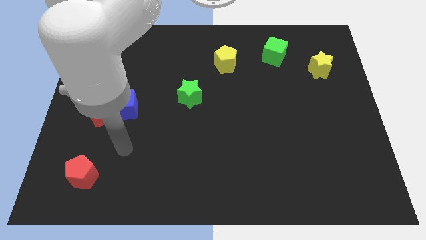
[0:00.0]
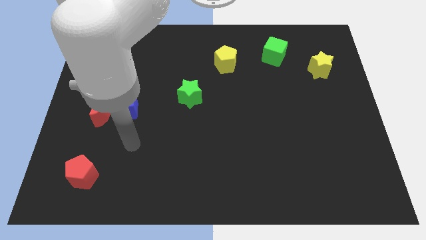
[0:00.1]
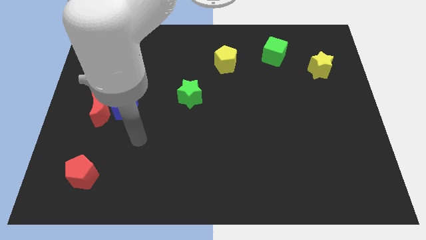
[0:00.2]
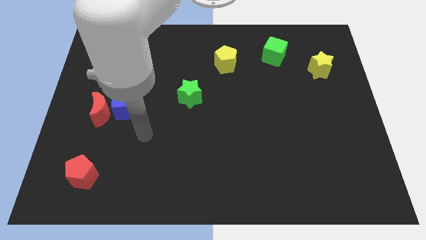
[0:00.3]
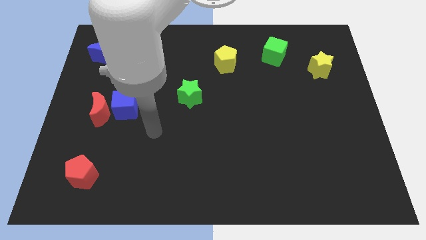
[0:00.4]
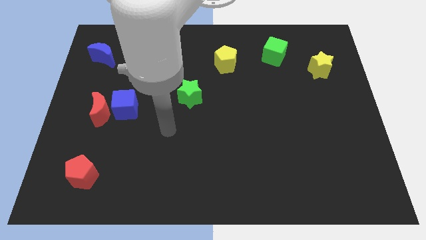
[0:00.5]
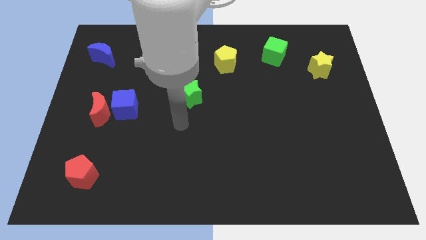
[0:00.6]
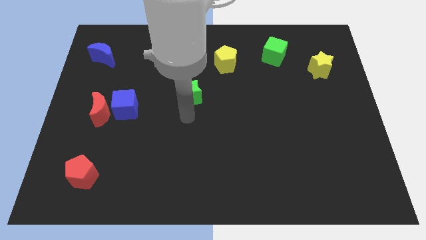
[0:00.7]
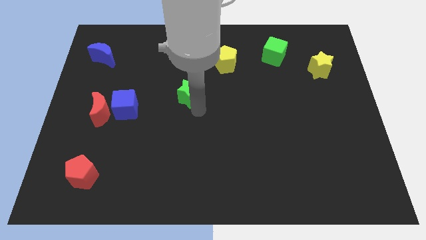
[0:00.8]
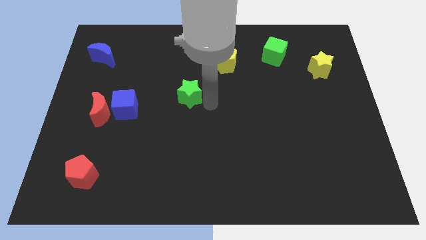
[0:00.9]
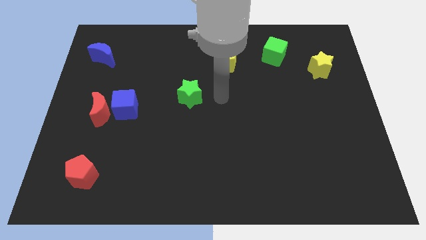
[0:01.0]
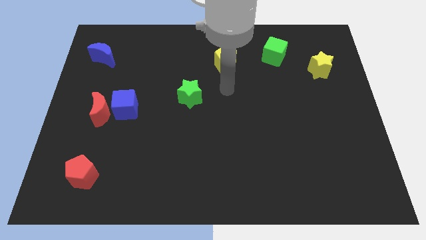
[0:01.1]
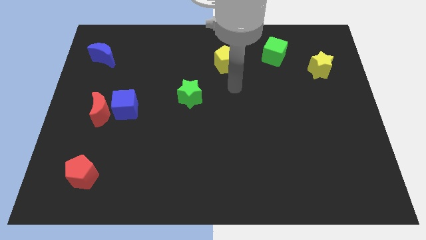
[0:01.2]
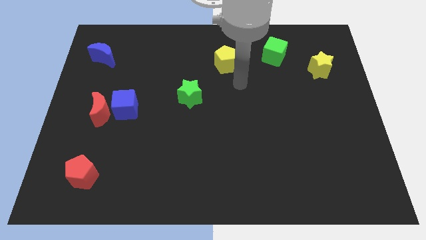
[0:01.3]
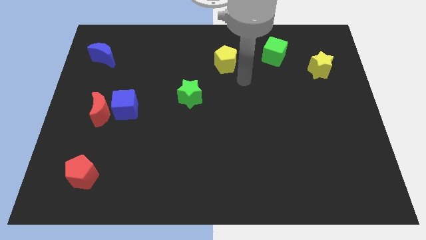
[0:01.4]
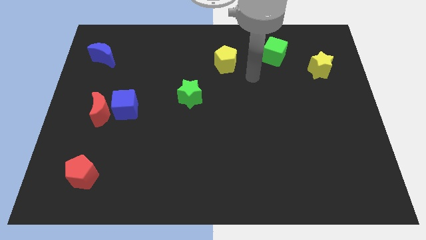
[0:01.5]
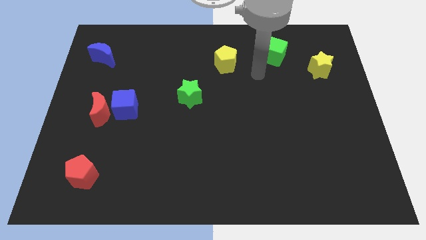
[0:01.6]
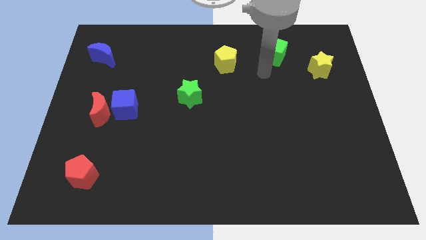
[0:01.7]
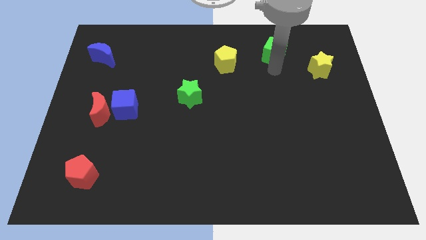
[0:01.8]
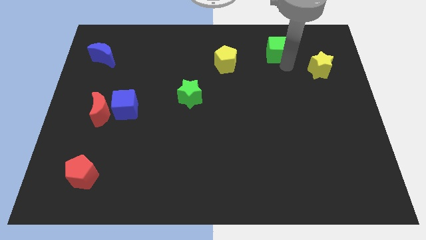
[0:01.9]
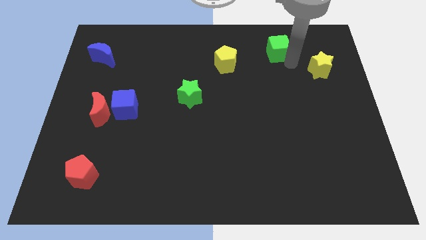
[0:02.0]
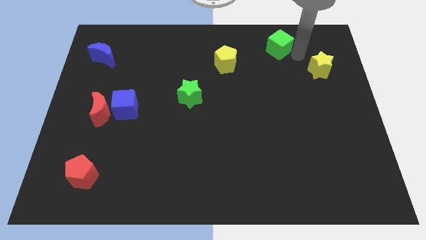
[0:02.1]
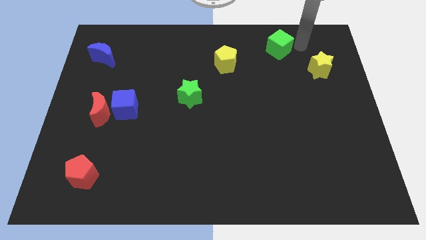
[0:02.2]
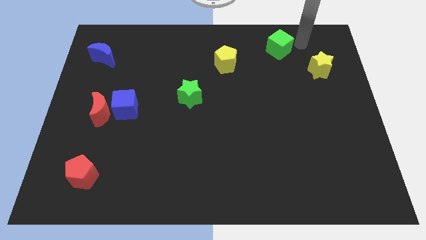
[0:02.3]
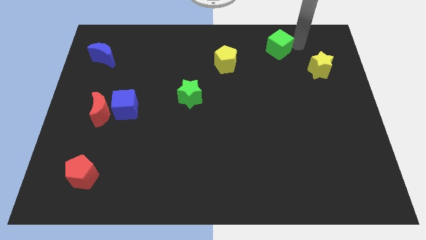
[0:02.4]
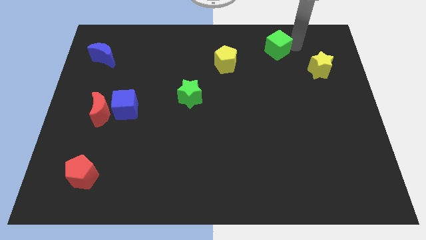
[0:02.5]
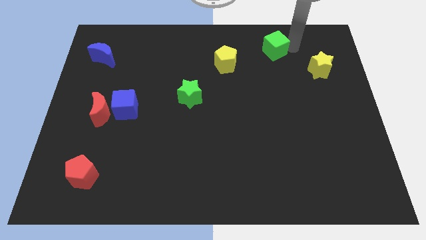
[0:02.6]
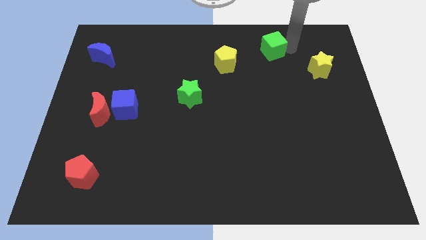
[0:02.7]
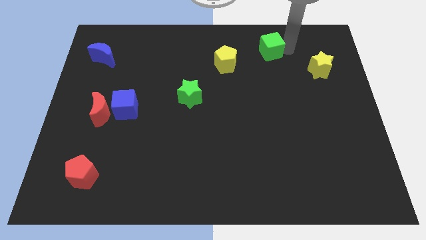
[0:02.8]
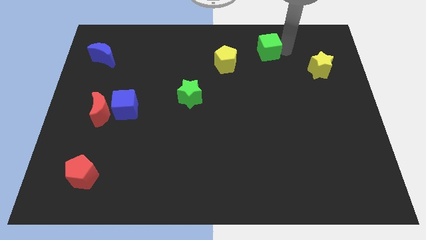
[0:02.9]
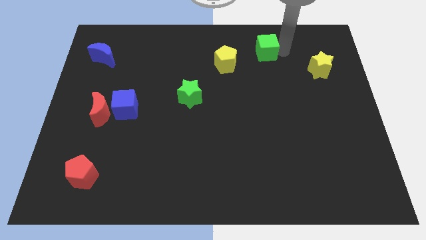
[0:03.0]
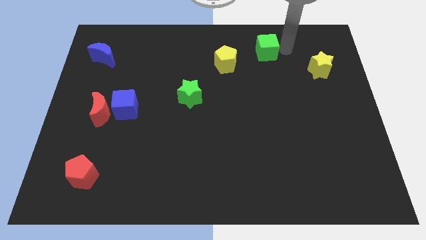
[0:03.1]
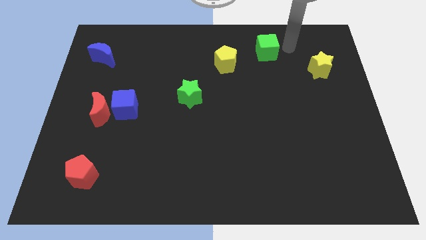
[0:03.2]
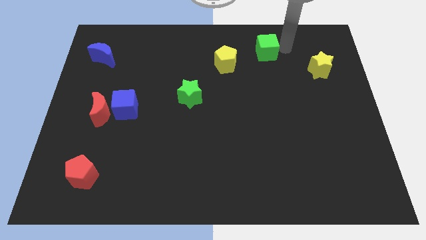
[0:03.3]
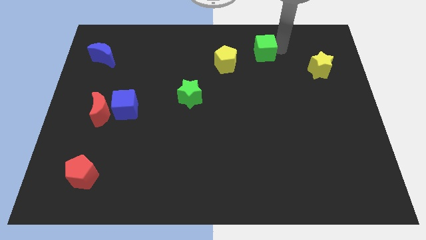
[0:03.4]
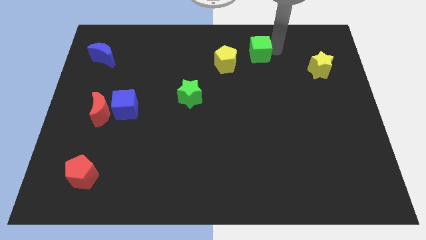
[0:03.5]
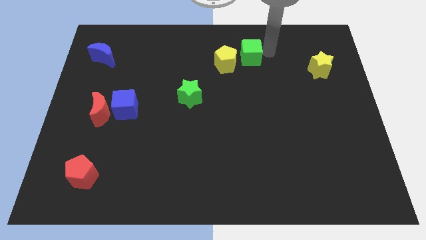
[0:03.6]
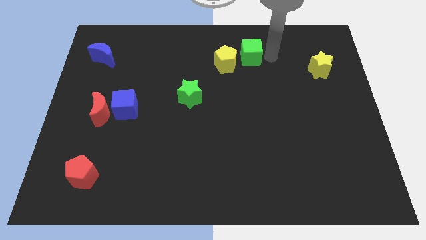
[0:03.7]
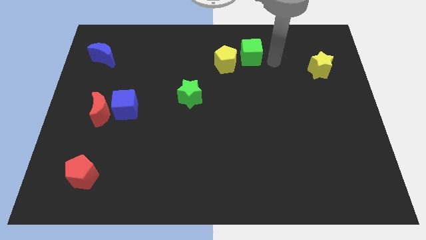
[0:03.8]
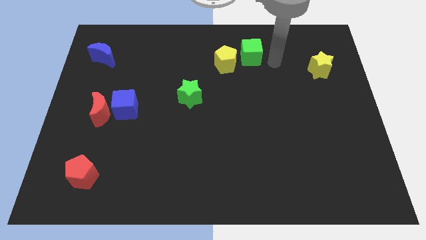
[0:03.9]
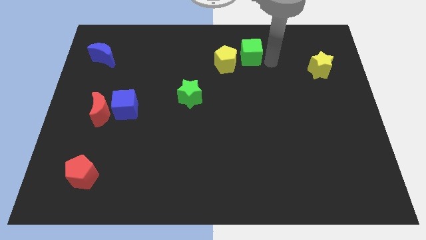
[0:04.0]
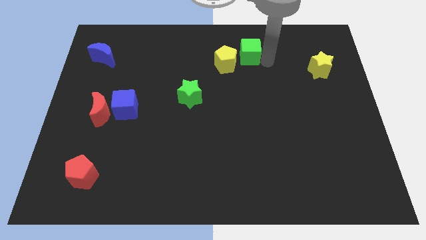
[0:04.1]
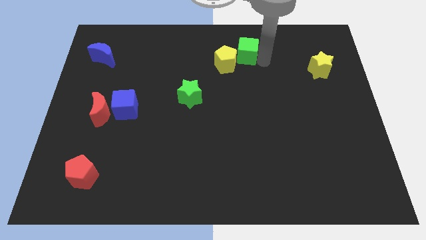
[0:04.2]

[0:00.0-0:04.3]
move the green cube to the left somewhat

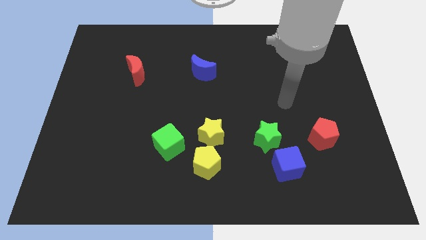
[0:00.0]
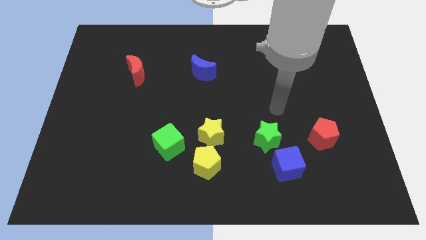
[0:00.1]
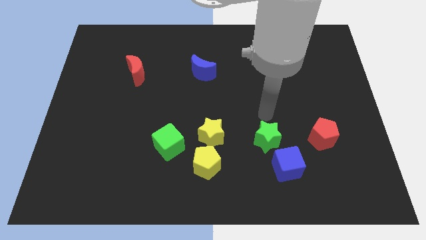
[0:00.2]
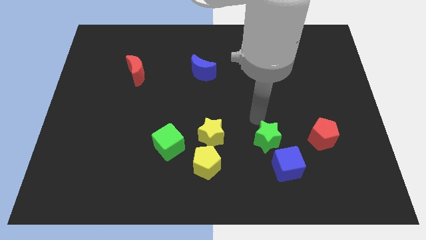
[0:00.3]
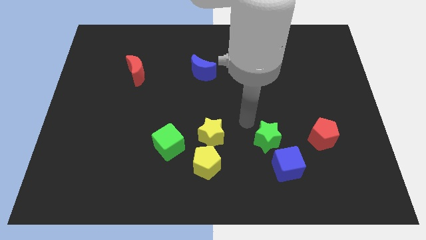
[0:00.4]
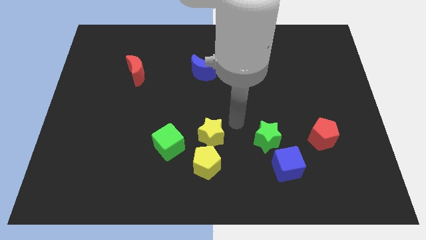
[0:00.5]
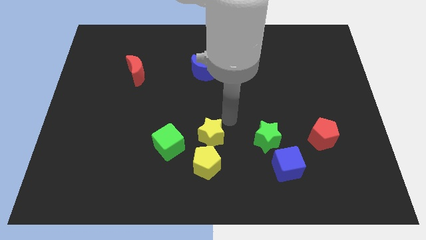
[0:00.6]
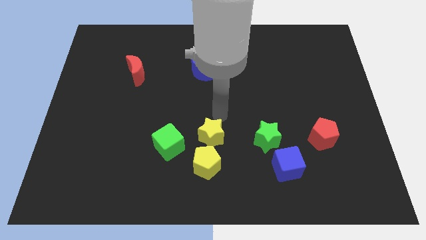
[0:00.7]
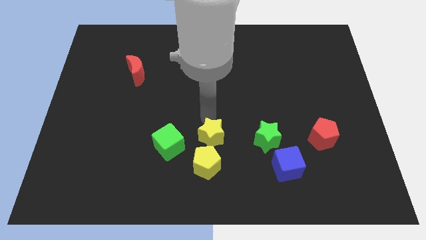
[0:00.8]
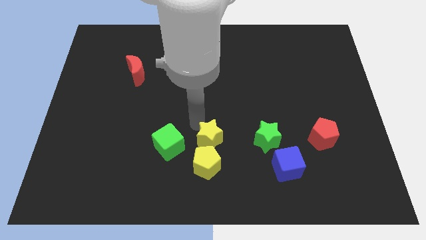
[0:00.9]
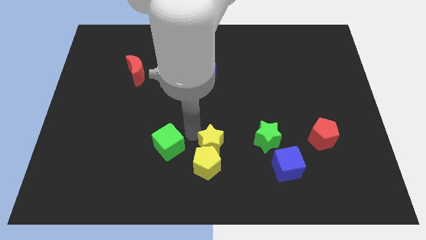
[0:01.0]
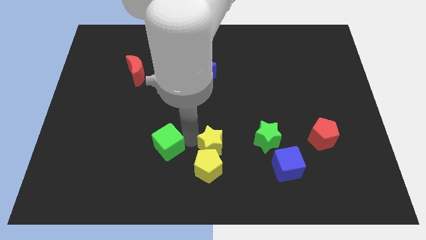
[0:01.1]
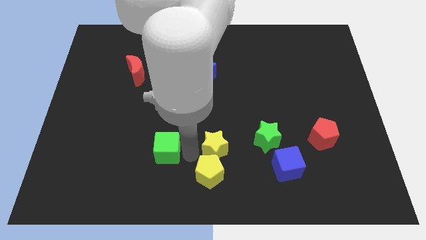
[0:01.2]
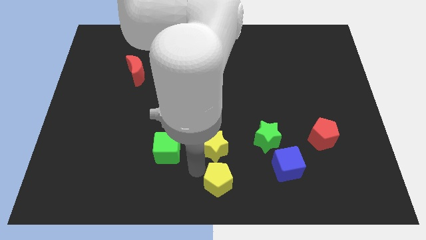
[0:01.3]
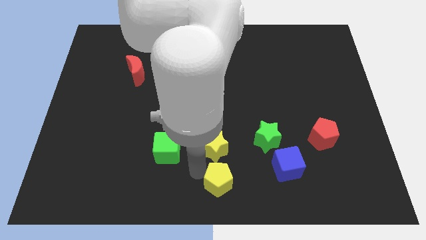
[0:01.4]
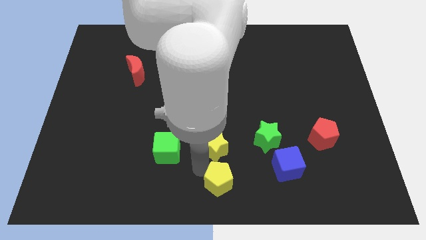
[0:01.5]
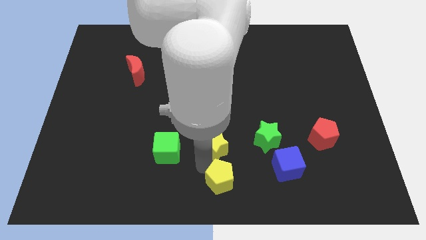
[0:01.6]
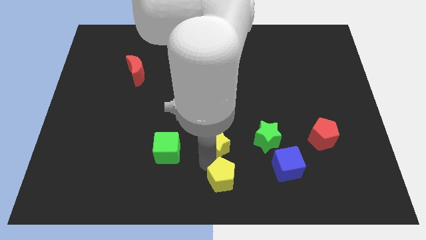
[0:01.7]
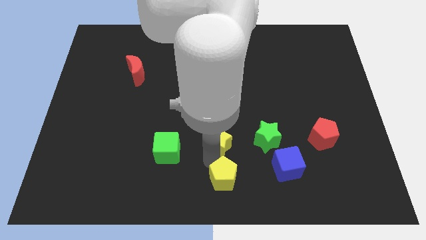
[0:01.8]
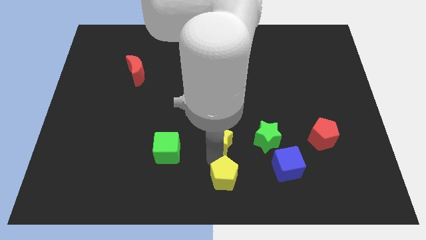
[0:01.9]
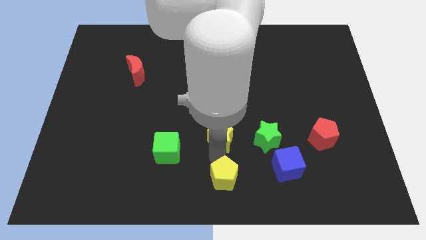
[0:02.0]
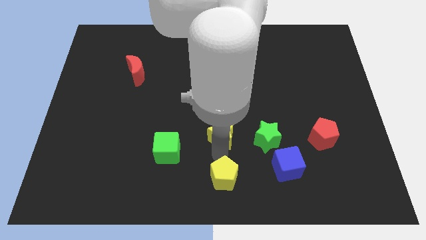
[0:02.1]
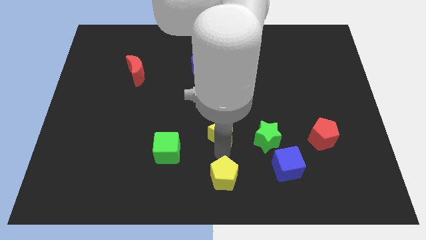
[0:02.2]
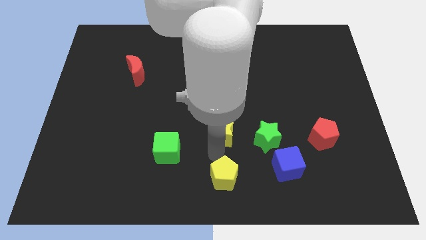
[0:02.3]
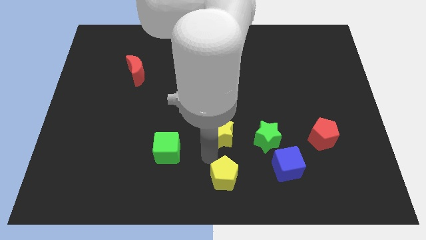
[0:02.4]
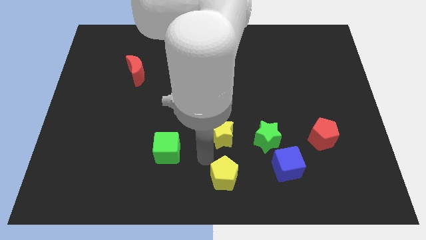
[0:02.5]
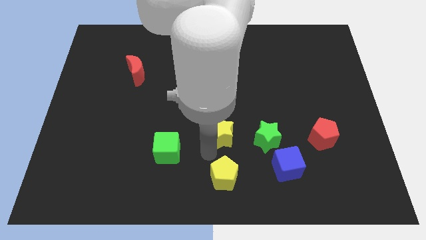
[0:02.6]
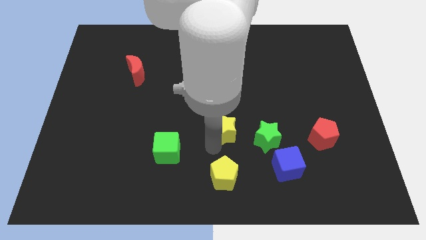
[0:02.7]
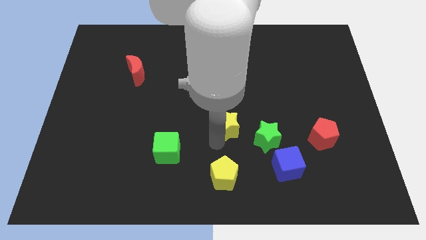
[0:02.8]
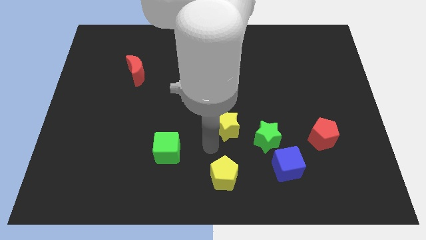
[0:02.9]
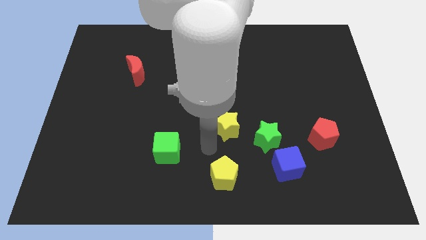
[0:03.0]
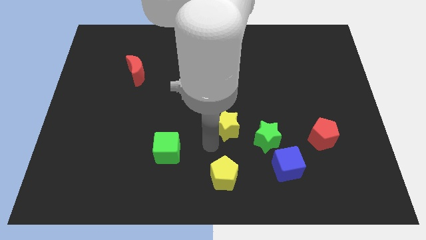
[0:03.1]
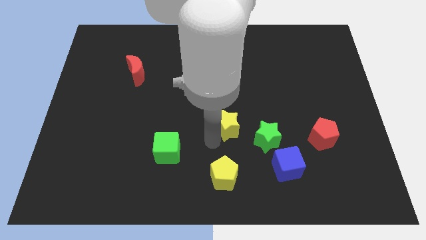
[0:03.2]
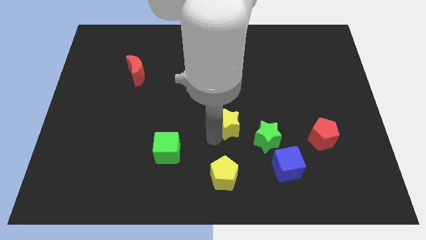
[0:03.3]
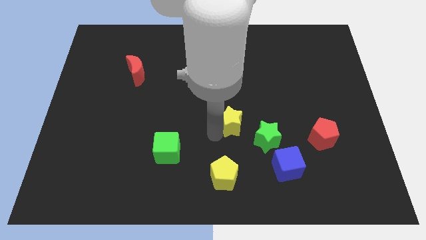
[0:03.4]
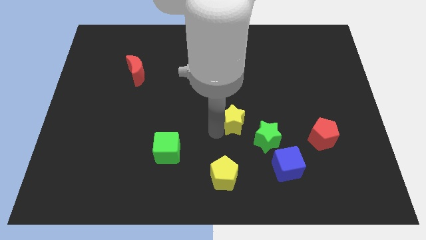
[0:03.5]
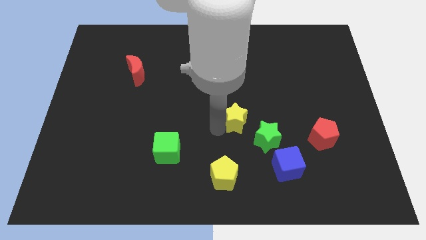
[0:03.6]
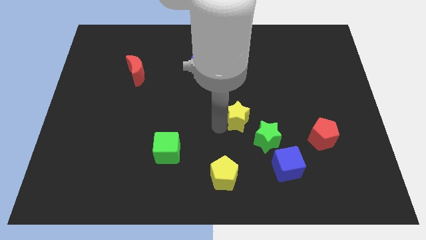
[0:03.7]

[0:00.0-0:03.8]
slide the yellow star a little upwards and to the right diagonally
